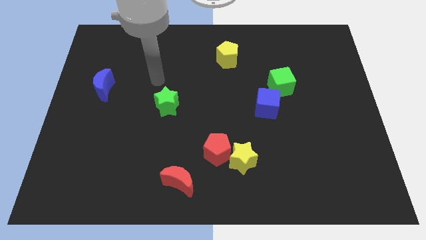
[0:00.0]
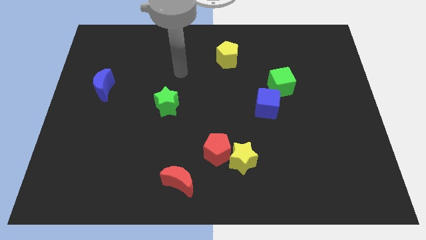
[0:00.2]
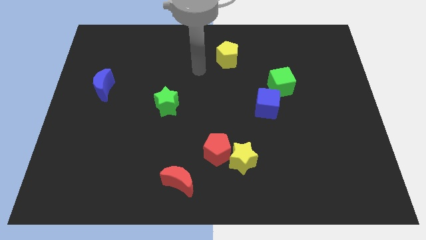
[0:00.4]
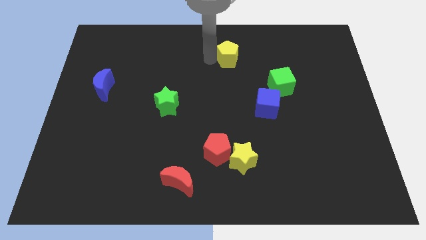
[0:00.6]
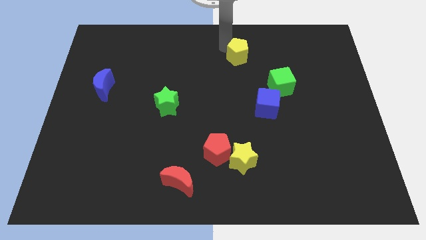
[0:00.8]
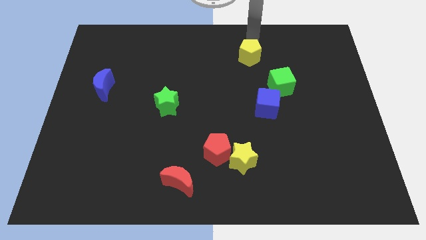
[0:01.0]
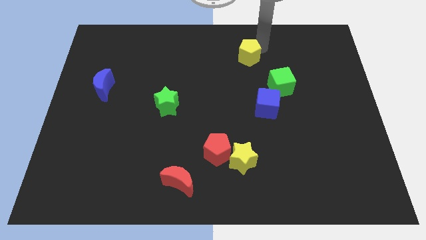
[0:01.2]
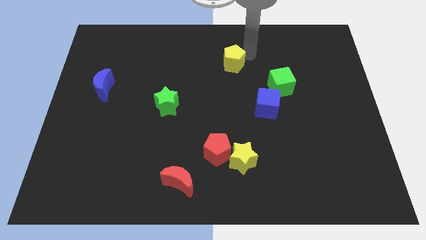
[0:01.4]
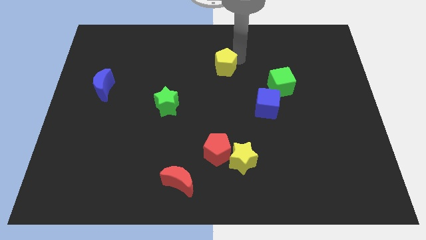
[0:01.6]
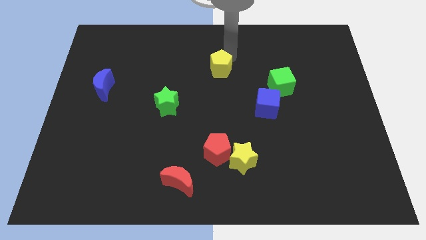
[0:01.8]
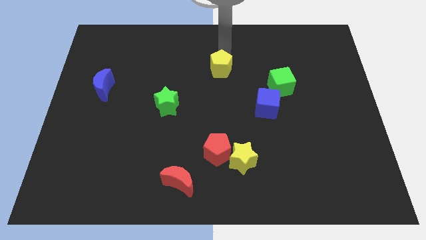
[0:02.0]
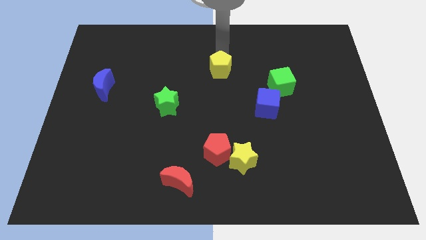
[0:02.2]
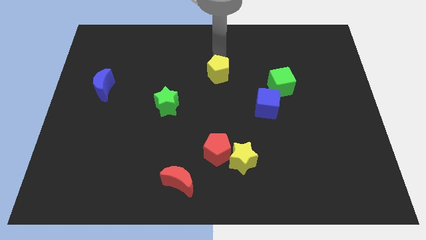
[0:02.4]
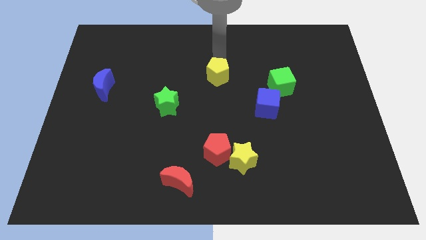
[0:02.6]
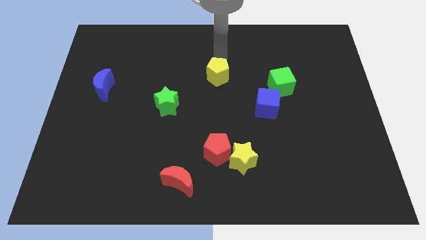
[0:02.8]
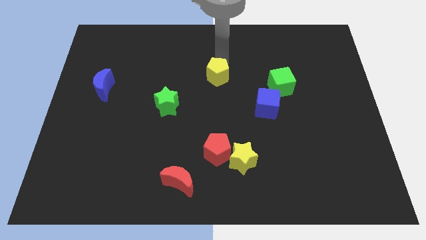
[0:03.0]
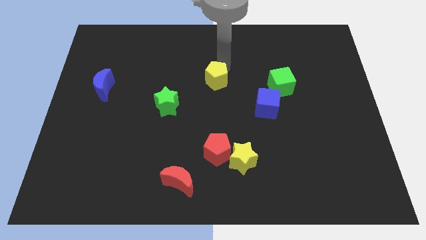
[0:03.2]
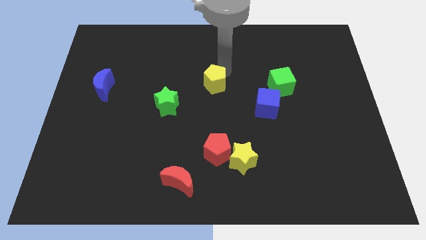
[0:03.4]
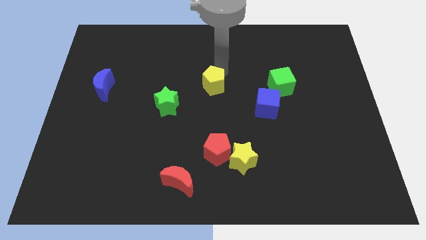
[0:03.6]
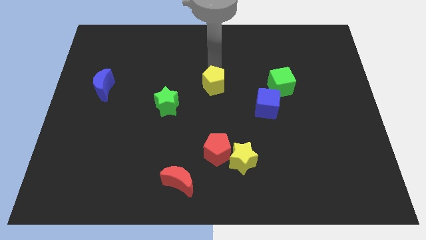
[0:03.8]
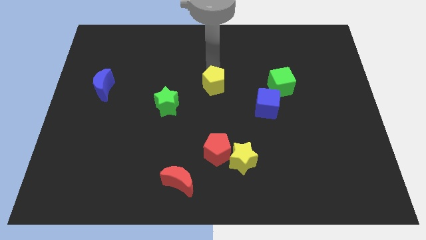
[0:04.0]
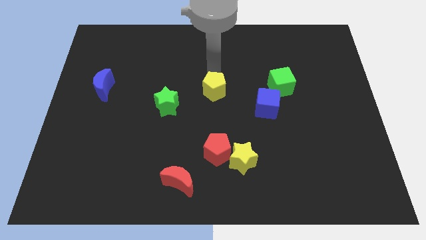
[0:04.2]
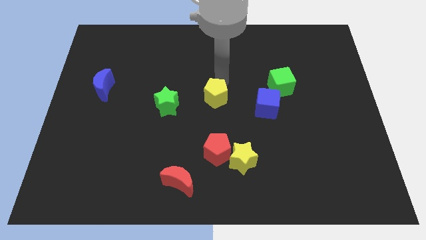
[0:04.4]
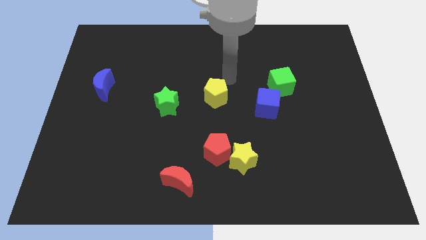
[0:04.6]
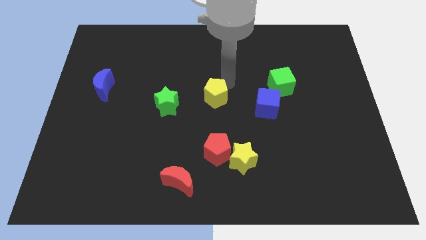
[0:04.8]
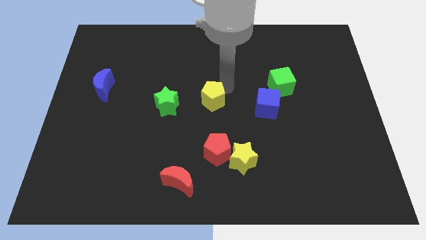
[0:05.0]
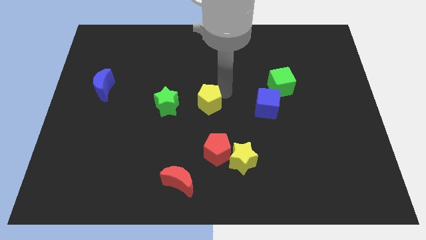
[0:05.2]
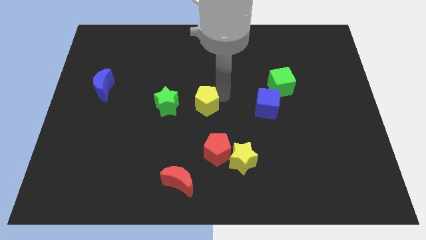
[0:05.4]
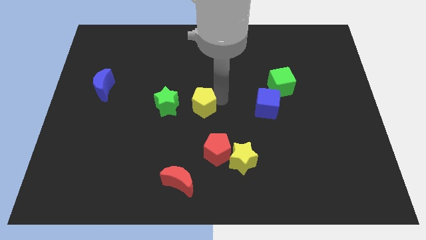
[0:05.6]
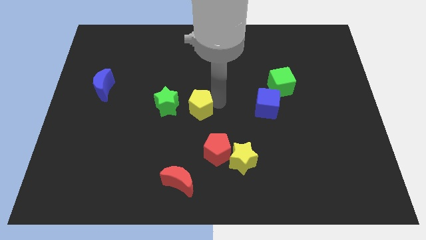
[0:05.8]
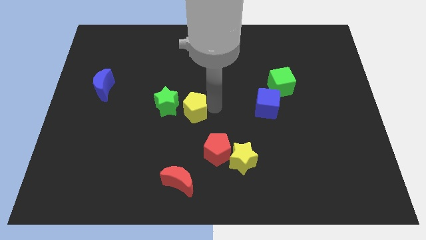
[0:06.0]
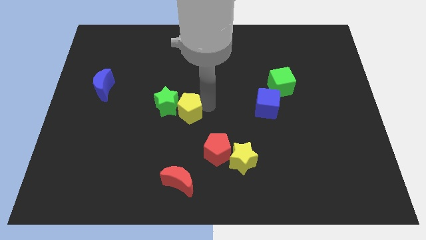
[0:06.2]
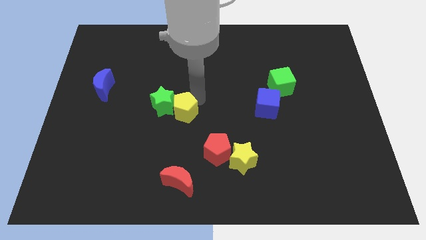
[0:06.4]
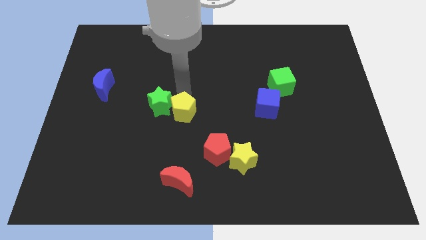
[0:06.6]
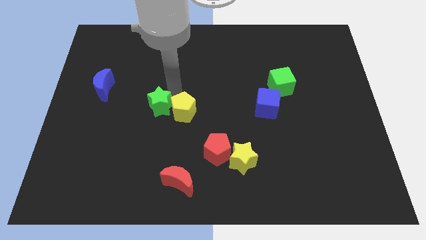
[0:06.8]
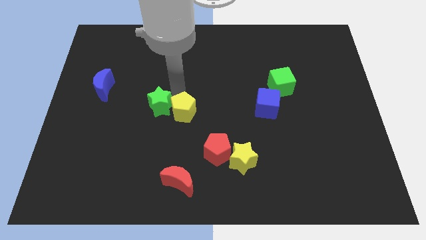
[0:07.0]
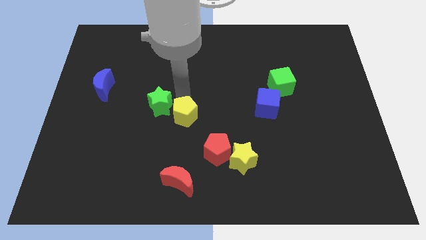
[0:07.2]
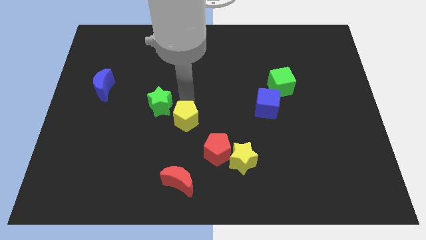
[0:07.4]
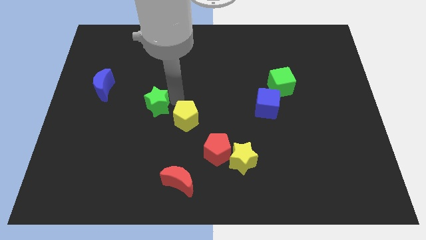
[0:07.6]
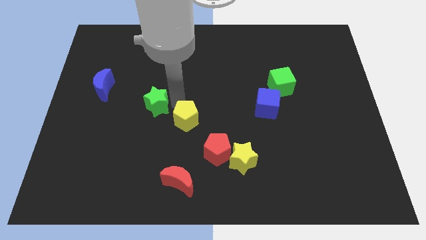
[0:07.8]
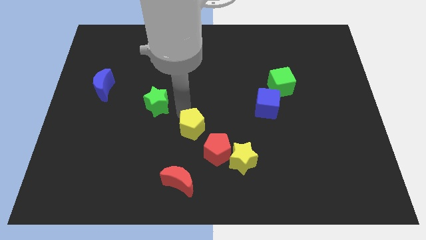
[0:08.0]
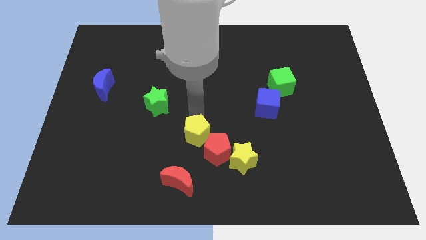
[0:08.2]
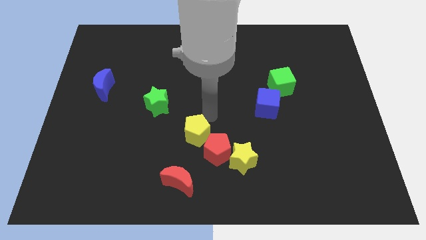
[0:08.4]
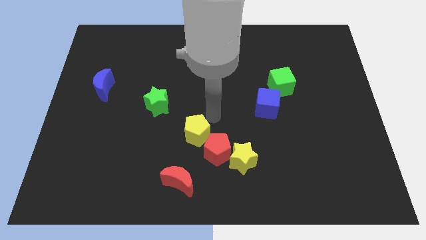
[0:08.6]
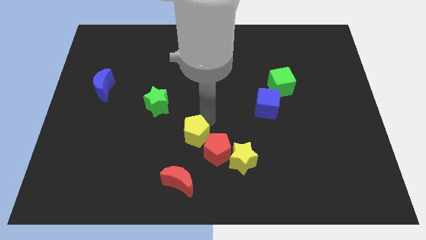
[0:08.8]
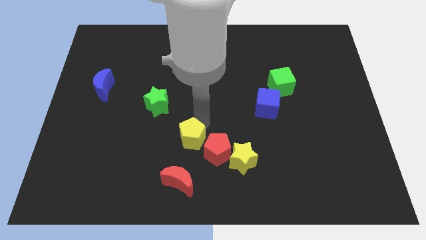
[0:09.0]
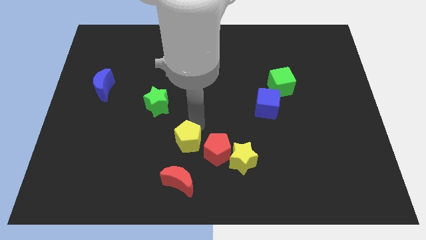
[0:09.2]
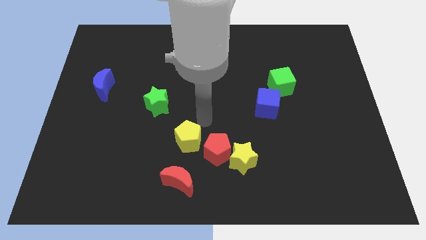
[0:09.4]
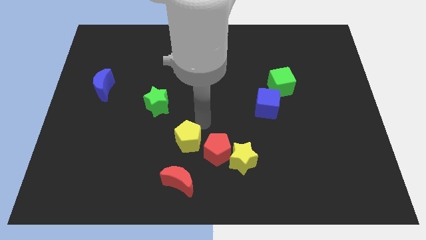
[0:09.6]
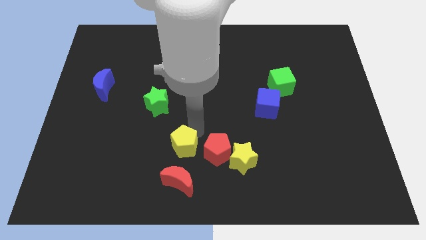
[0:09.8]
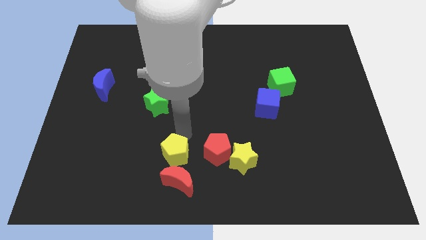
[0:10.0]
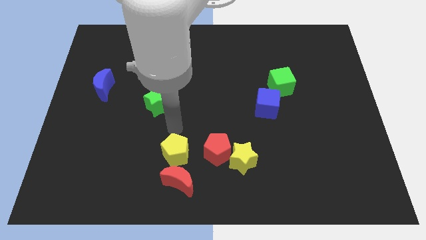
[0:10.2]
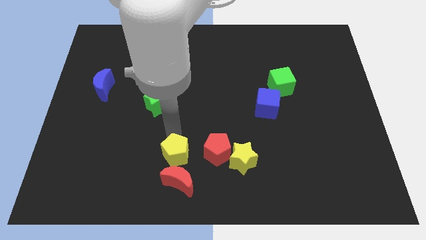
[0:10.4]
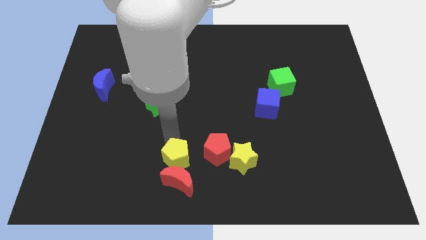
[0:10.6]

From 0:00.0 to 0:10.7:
put the yellow pentagon towards the red moon
